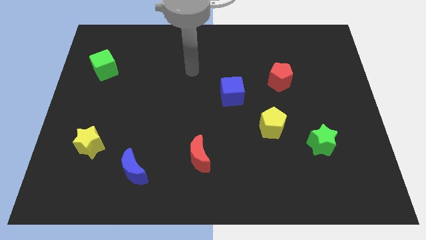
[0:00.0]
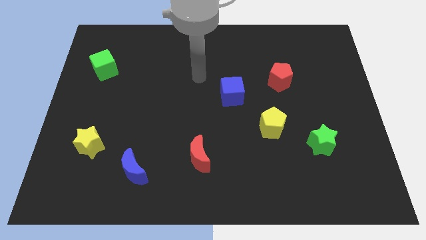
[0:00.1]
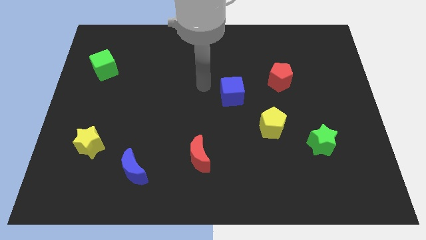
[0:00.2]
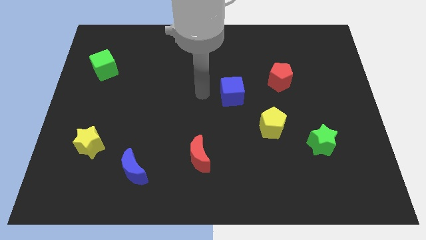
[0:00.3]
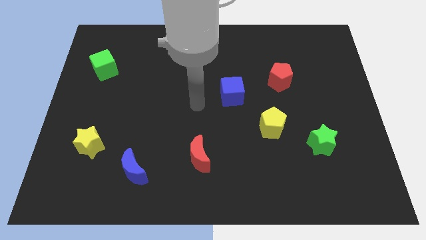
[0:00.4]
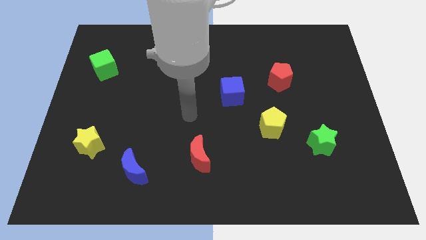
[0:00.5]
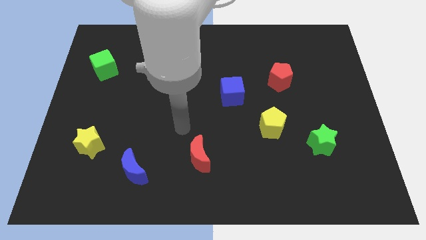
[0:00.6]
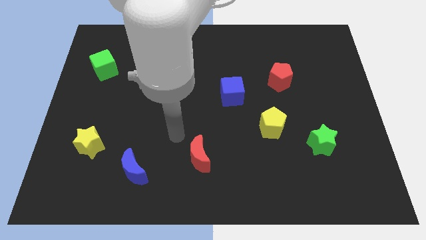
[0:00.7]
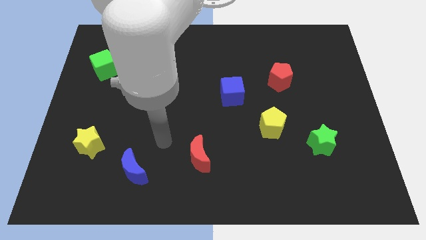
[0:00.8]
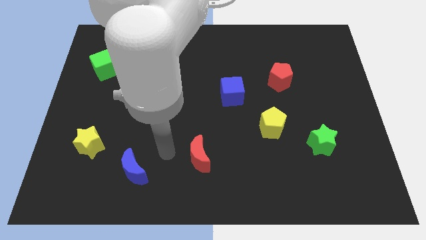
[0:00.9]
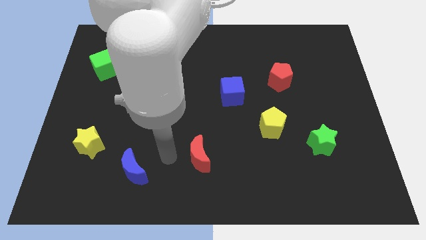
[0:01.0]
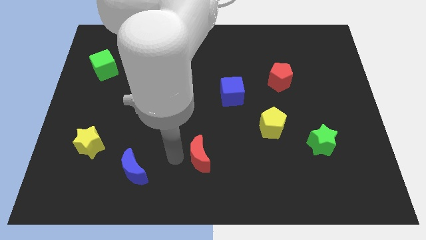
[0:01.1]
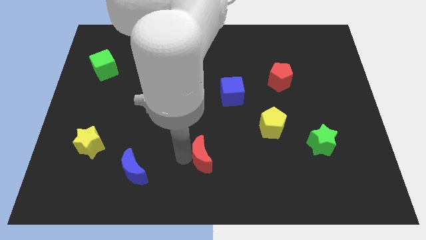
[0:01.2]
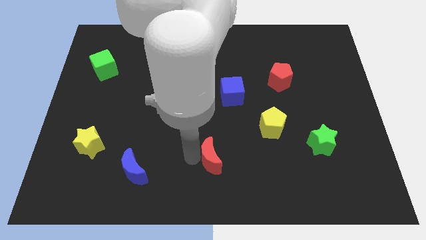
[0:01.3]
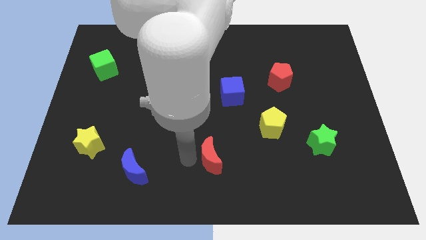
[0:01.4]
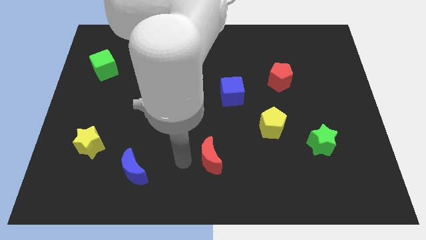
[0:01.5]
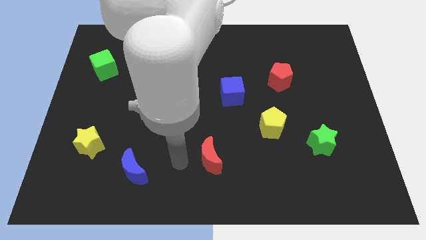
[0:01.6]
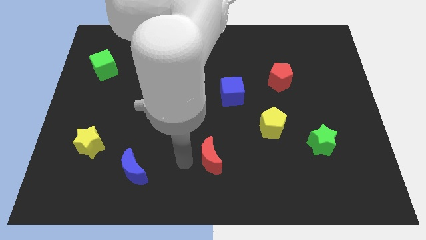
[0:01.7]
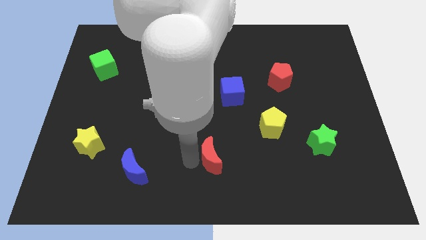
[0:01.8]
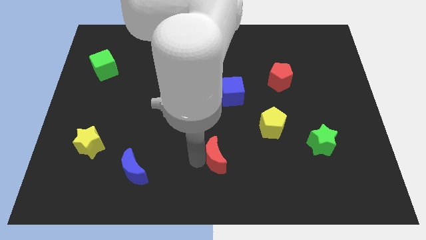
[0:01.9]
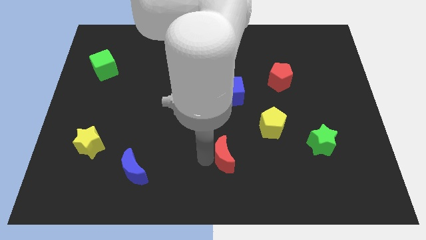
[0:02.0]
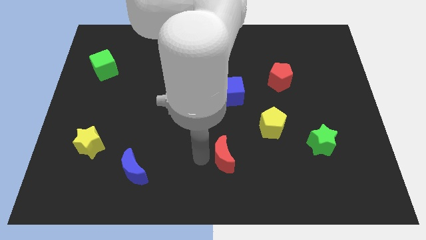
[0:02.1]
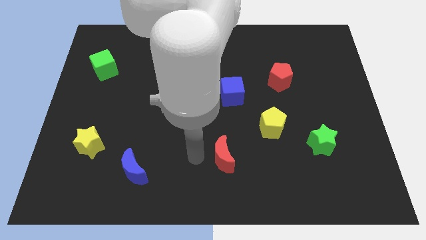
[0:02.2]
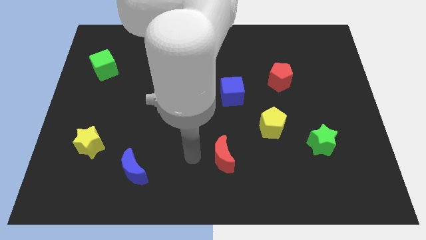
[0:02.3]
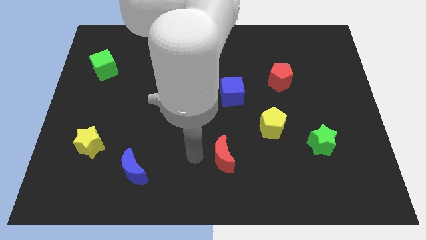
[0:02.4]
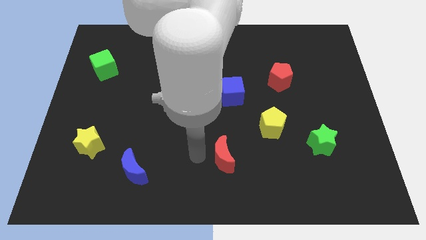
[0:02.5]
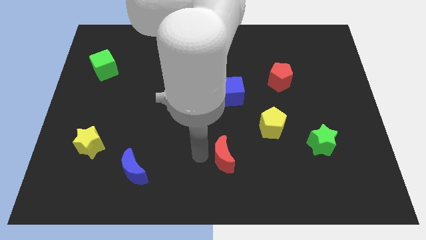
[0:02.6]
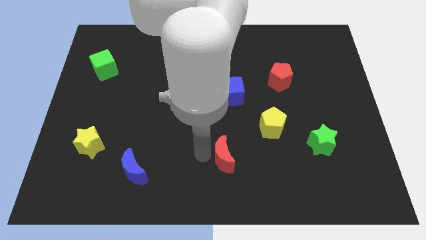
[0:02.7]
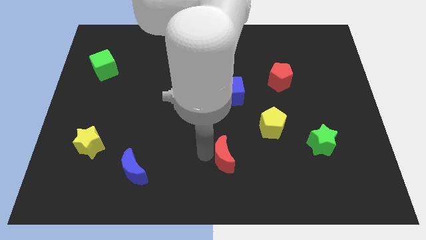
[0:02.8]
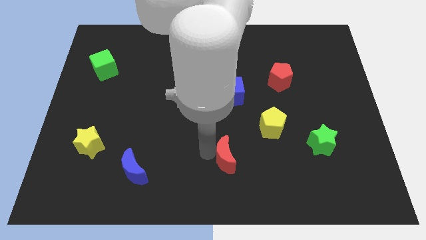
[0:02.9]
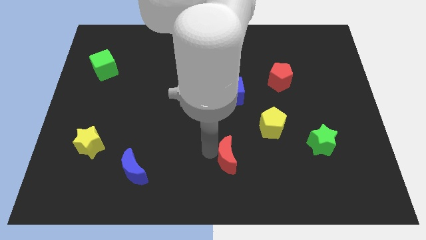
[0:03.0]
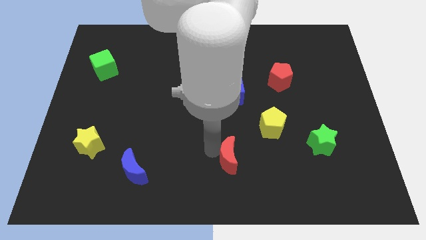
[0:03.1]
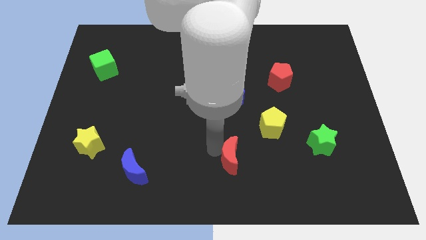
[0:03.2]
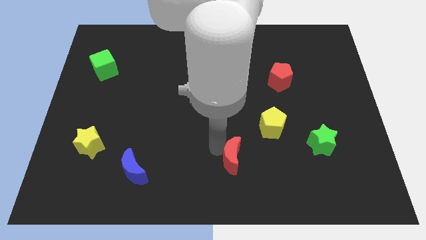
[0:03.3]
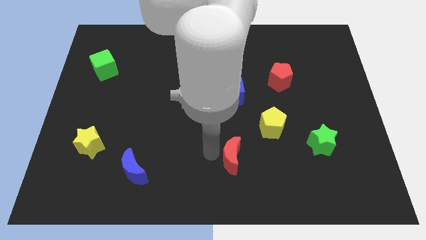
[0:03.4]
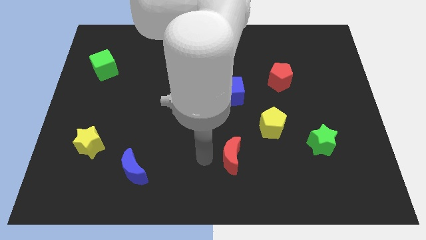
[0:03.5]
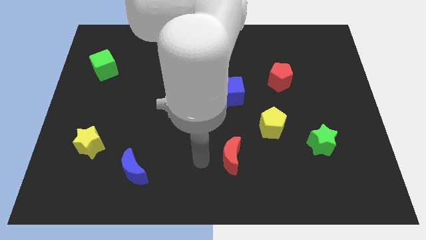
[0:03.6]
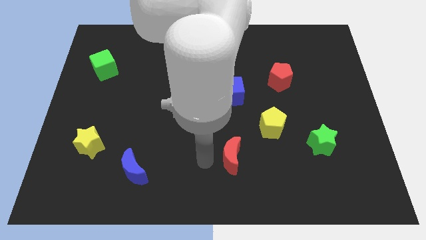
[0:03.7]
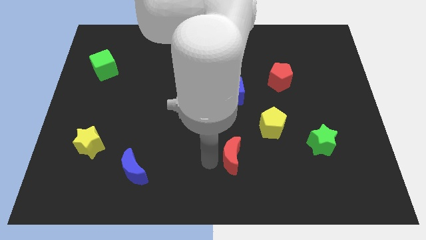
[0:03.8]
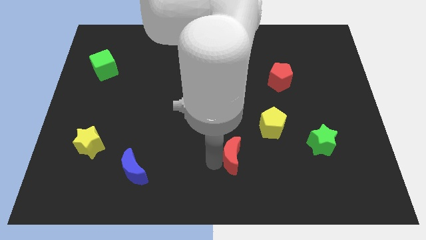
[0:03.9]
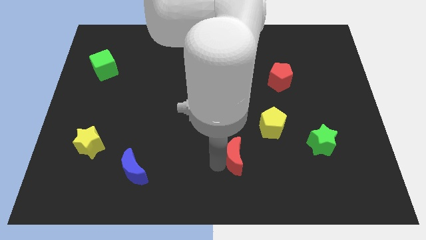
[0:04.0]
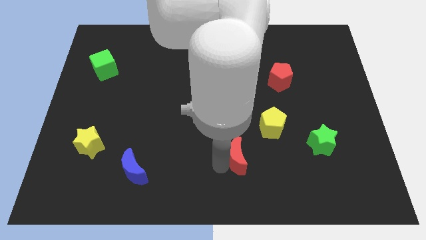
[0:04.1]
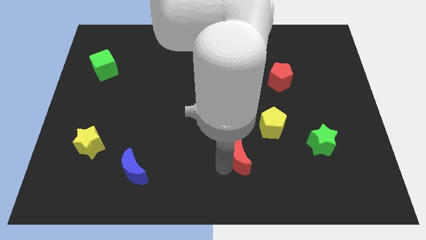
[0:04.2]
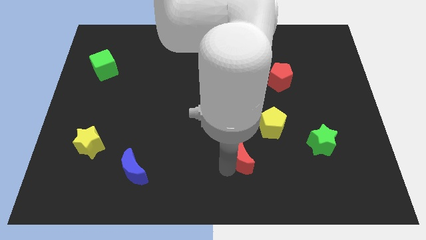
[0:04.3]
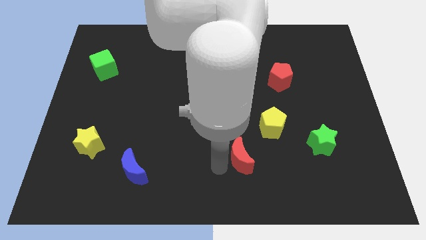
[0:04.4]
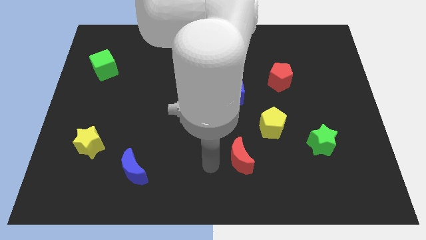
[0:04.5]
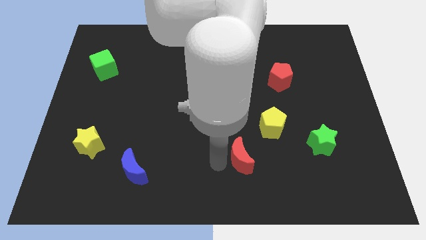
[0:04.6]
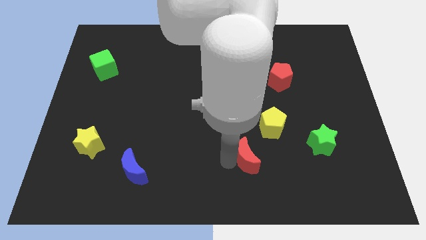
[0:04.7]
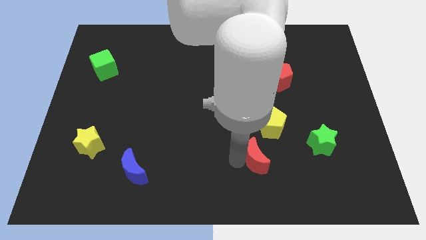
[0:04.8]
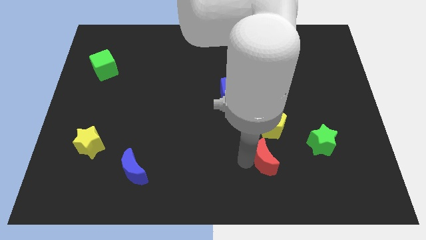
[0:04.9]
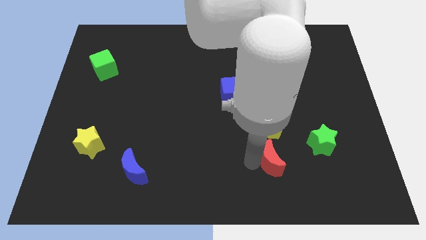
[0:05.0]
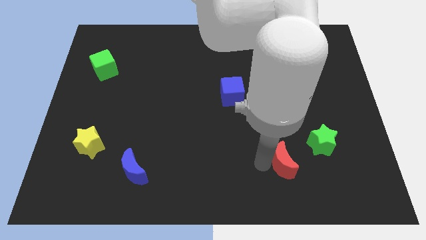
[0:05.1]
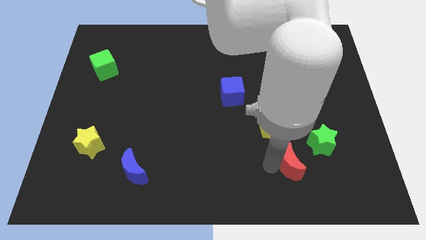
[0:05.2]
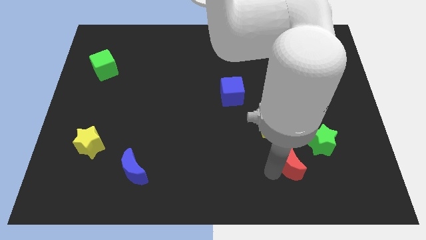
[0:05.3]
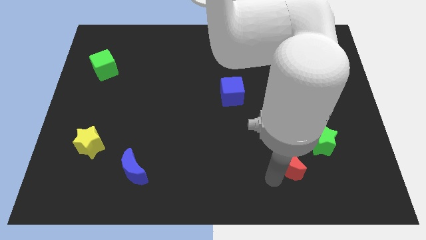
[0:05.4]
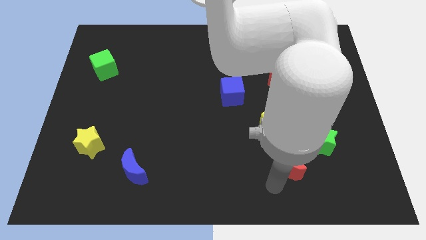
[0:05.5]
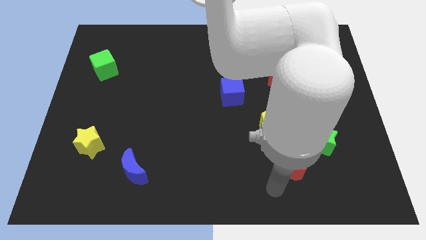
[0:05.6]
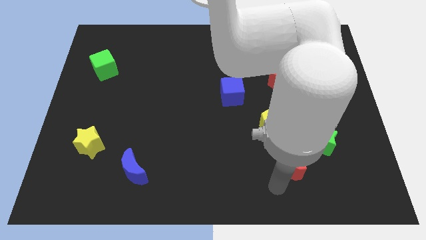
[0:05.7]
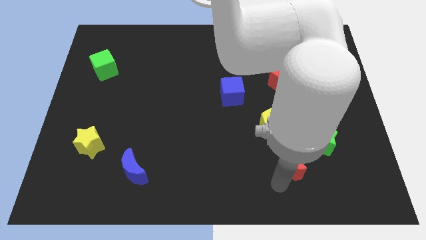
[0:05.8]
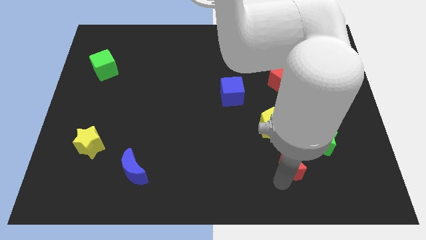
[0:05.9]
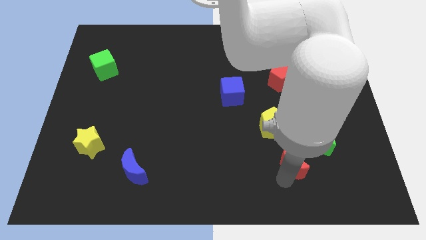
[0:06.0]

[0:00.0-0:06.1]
move the red moon to the bottom right of the yellow pentagon

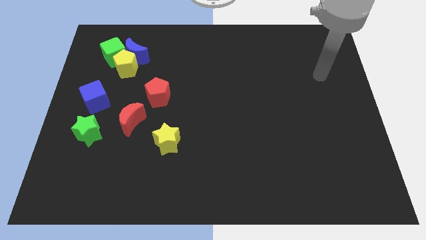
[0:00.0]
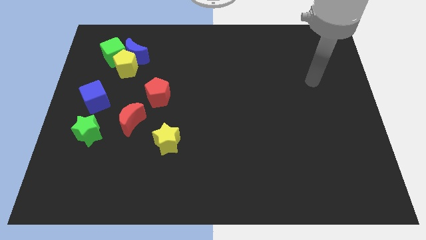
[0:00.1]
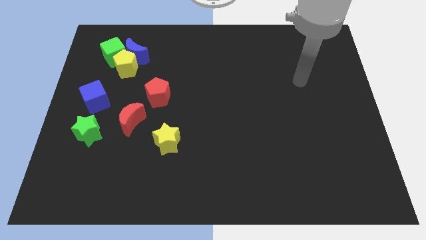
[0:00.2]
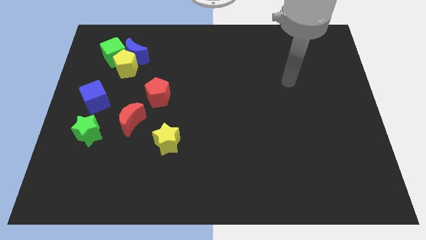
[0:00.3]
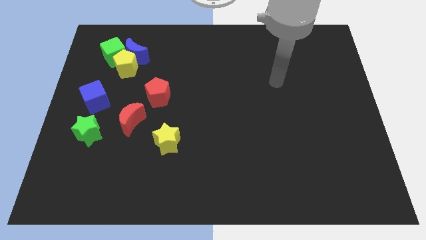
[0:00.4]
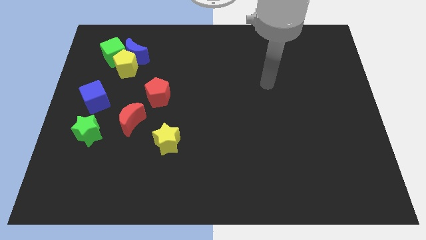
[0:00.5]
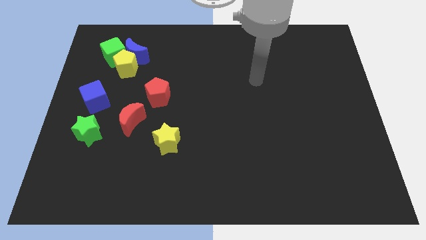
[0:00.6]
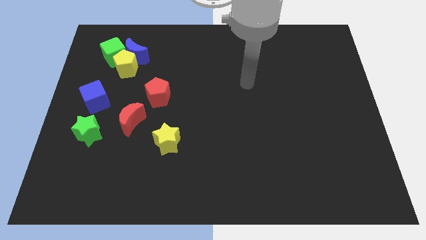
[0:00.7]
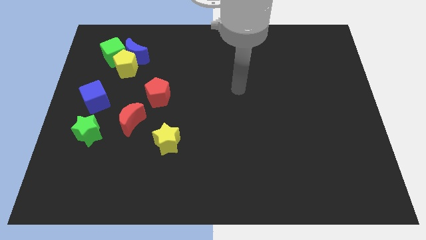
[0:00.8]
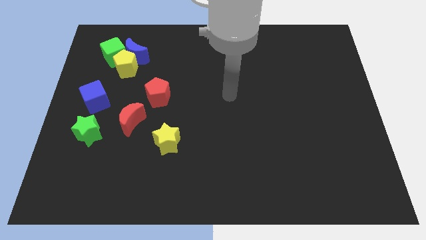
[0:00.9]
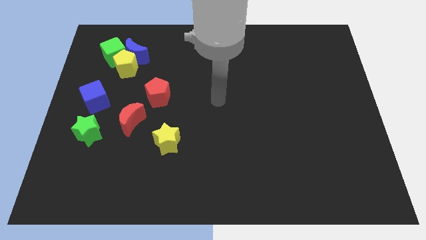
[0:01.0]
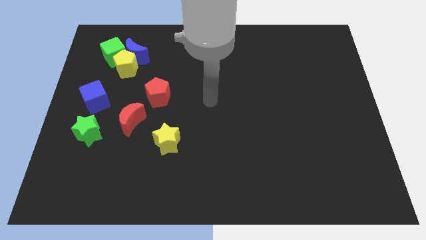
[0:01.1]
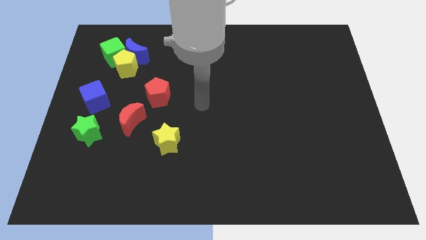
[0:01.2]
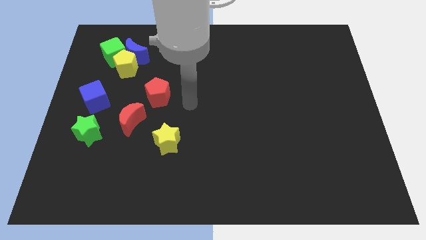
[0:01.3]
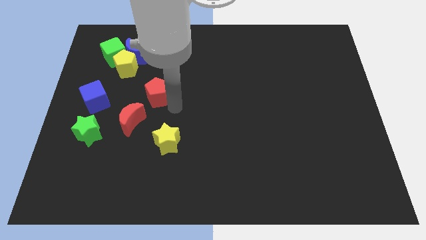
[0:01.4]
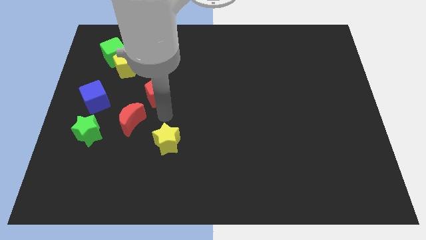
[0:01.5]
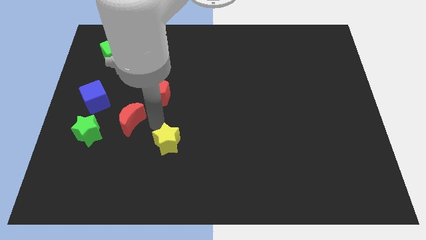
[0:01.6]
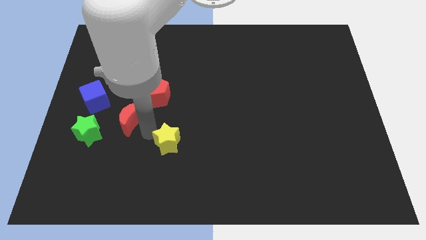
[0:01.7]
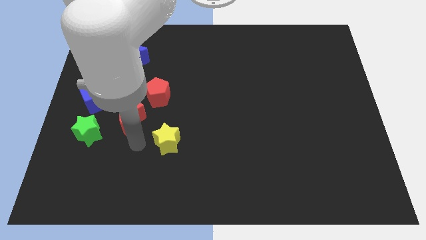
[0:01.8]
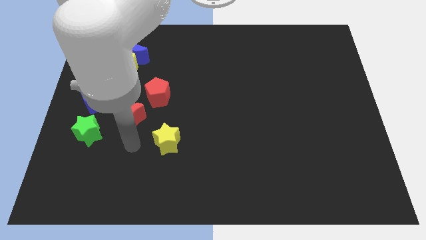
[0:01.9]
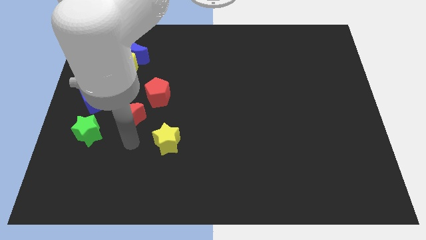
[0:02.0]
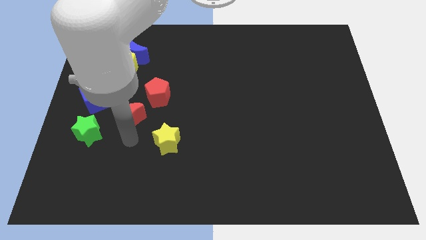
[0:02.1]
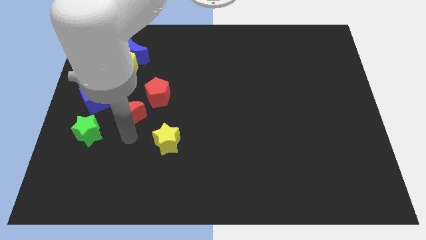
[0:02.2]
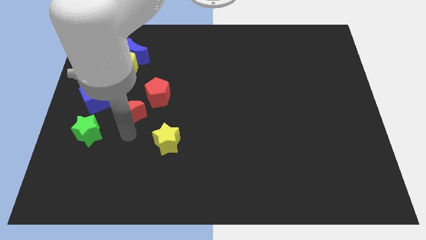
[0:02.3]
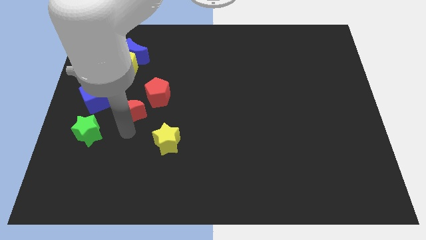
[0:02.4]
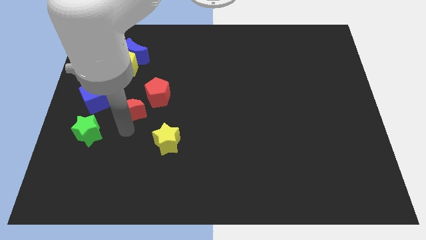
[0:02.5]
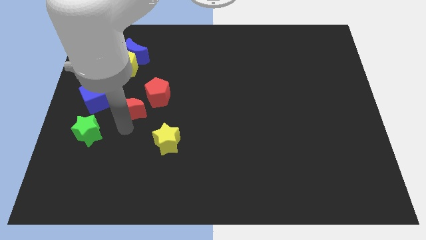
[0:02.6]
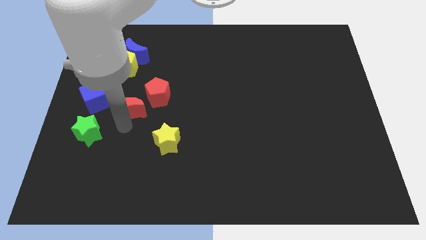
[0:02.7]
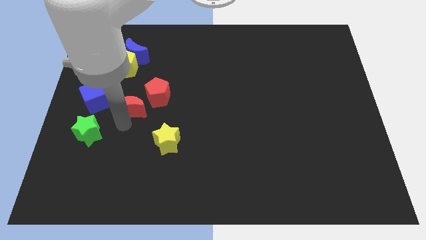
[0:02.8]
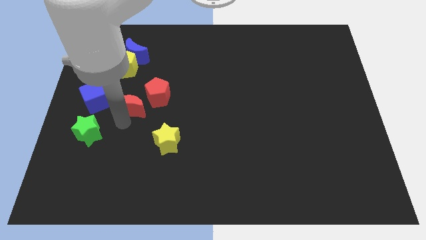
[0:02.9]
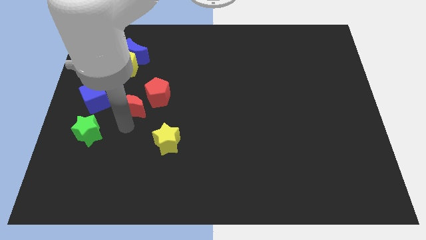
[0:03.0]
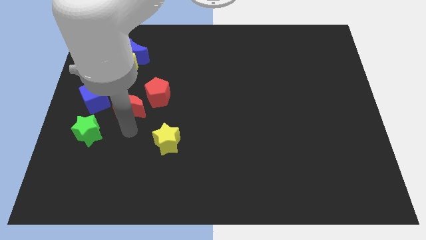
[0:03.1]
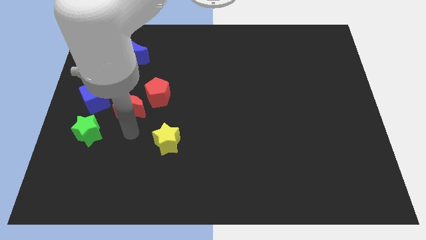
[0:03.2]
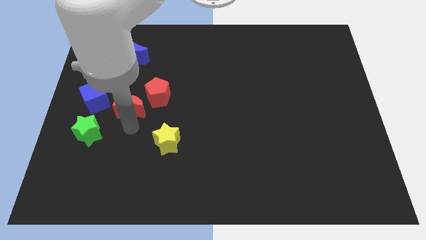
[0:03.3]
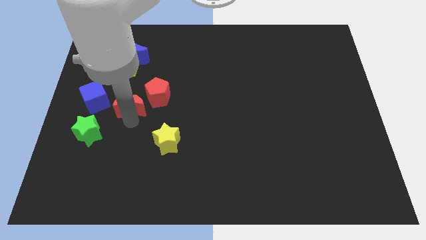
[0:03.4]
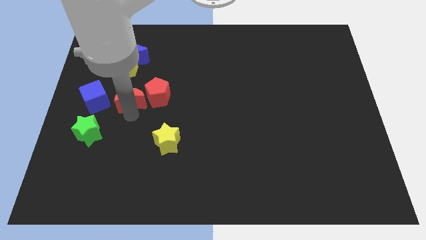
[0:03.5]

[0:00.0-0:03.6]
slide the red moon to the bottom of the blue moon
